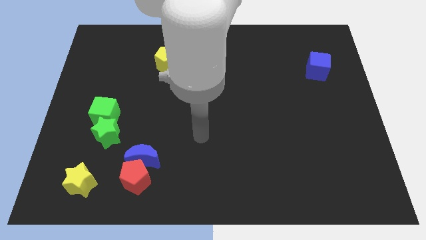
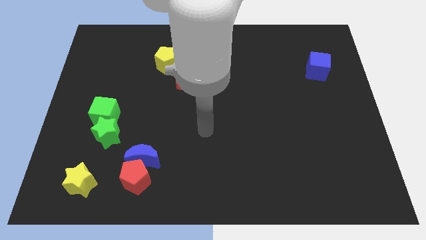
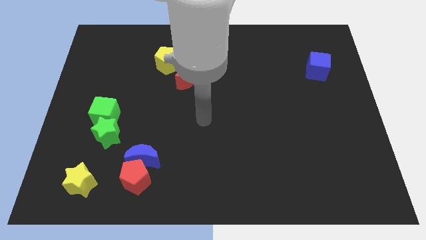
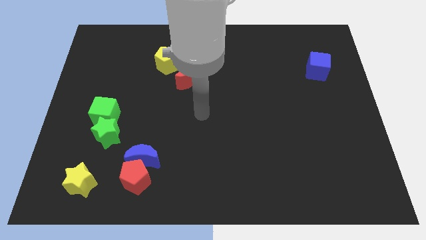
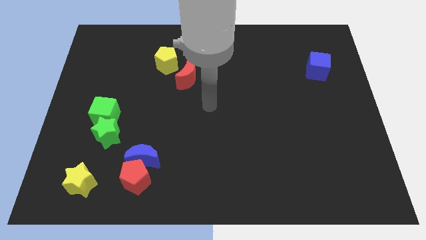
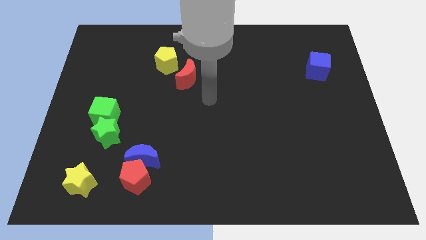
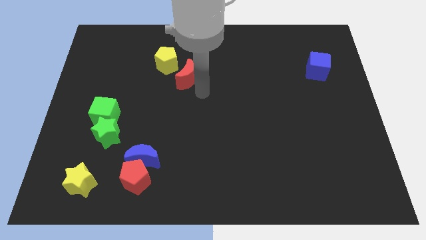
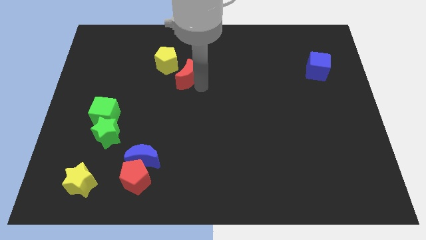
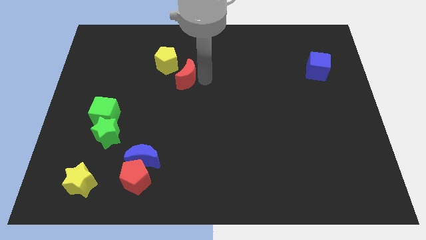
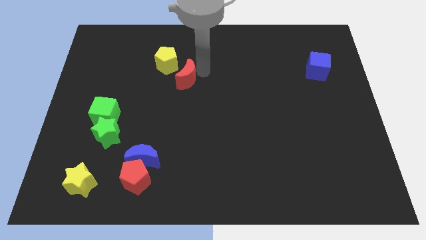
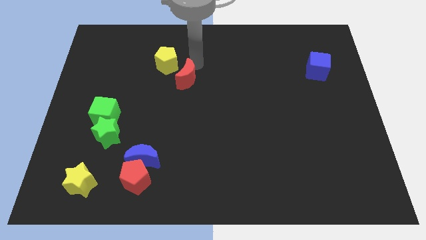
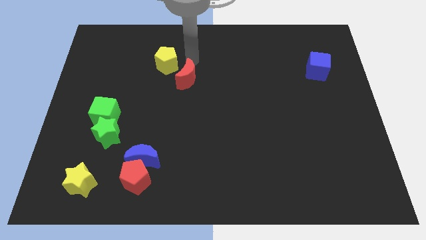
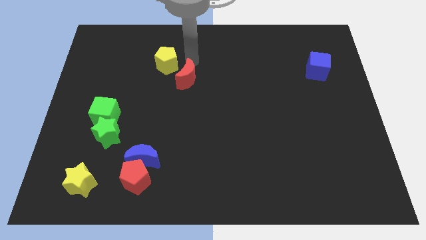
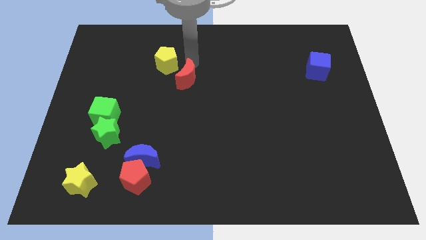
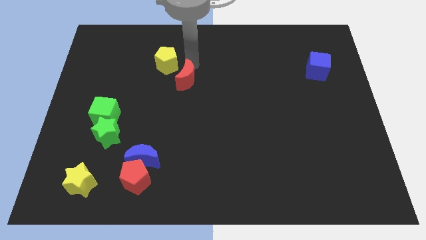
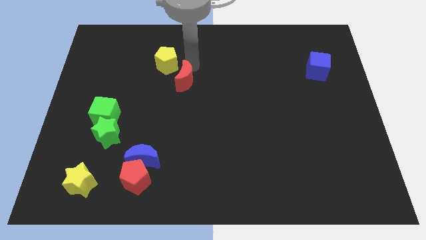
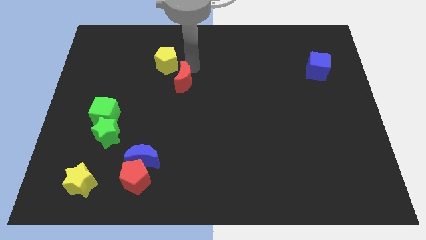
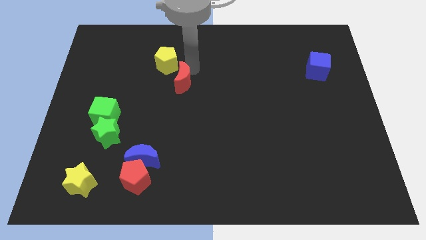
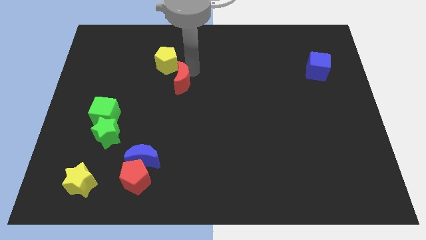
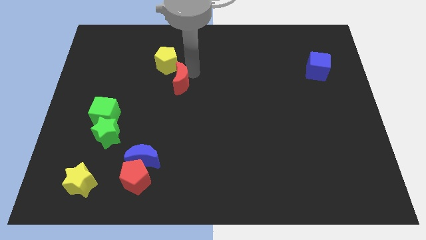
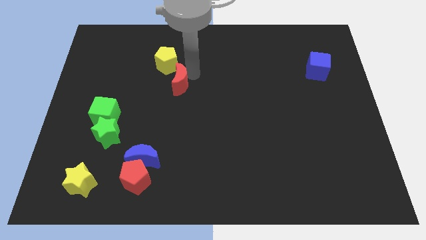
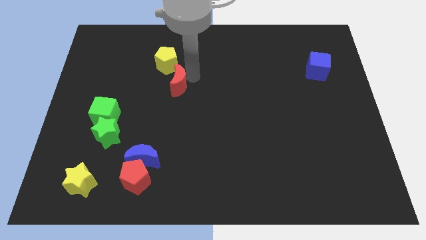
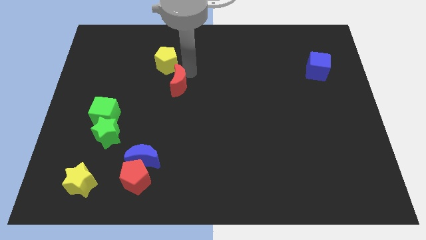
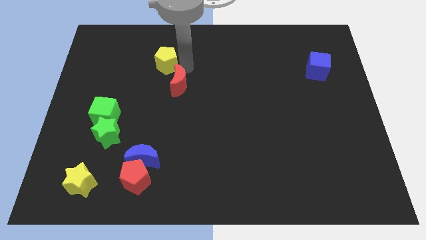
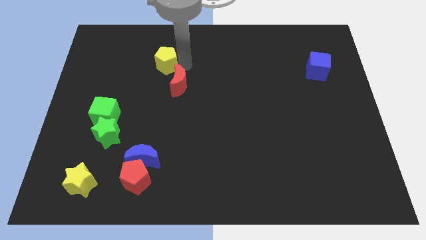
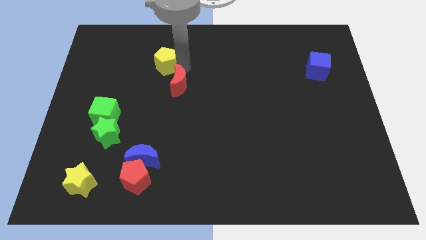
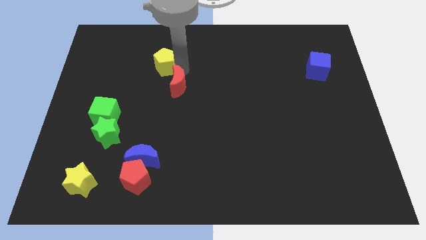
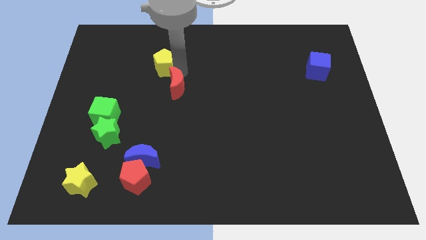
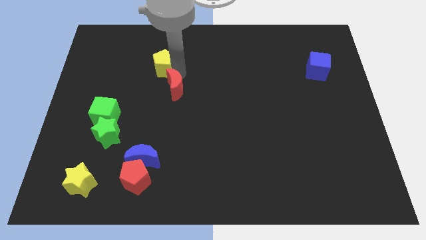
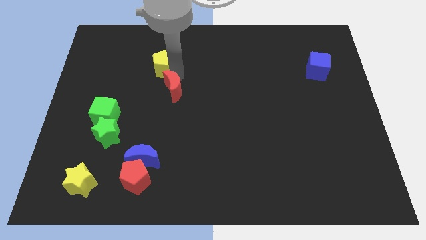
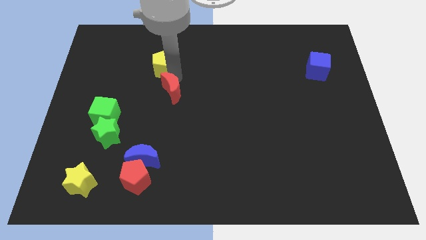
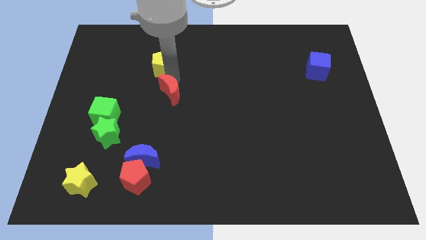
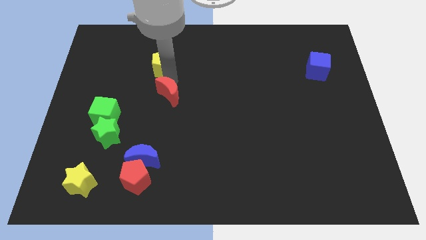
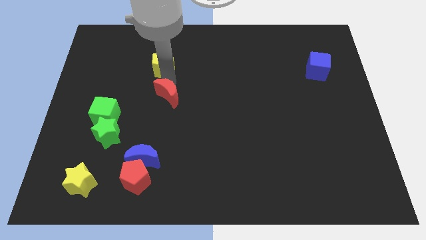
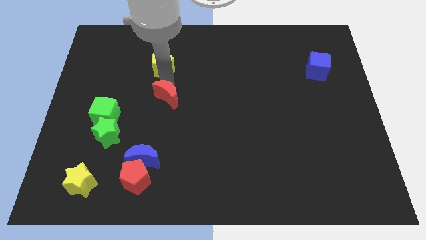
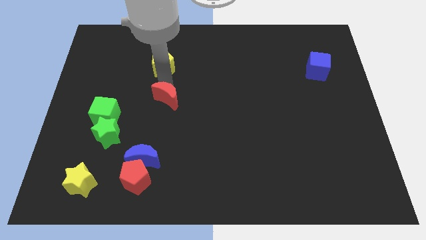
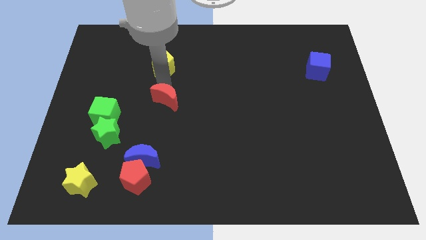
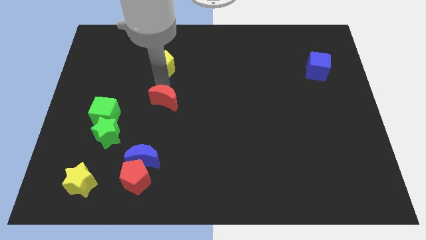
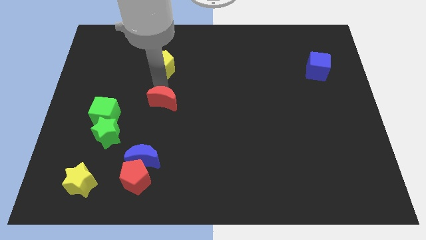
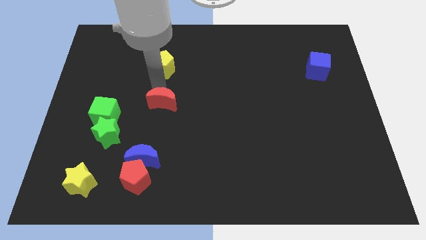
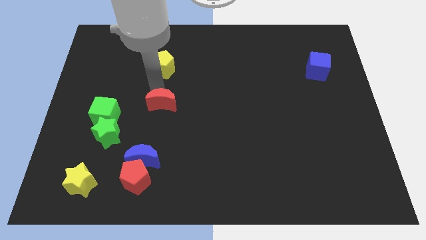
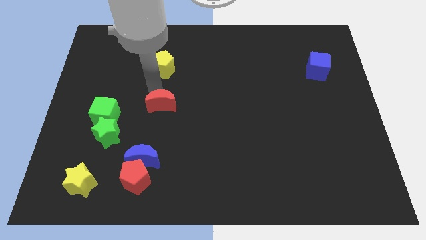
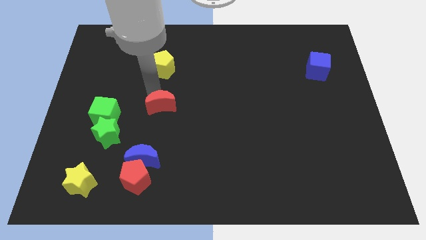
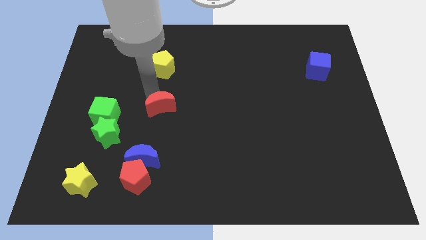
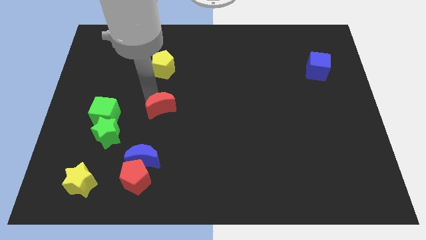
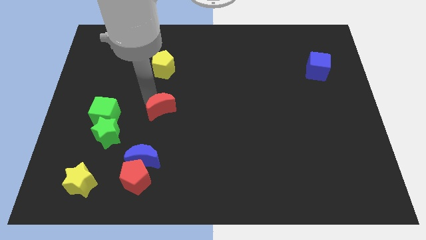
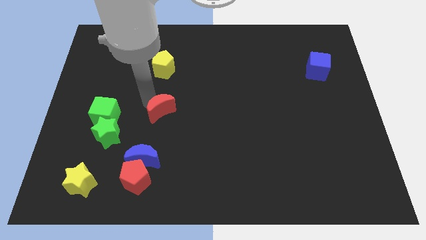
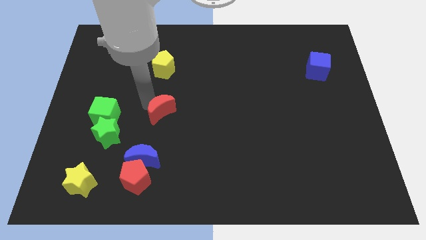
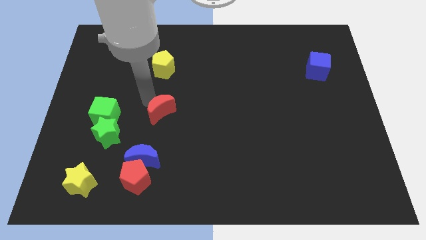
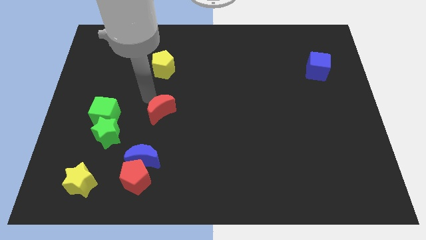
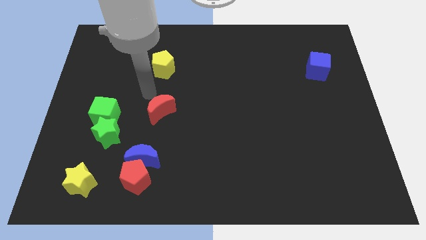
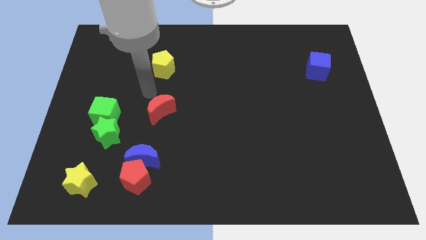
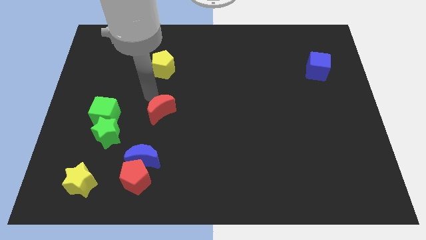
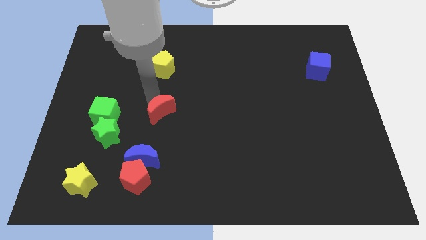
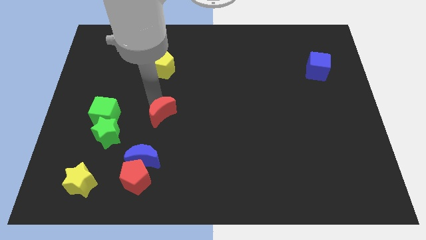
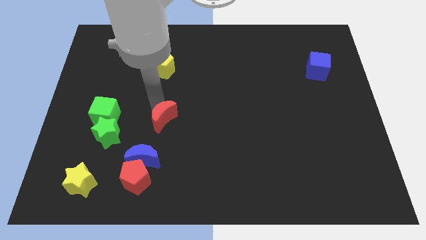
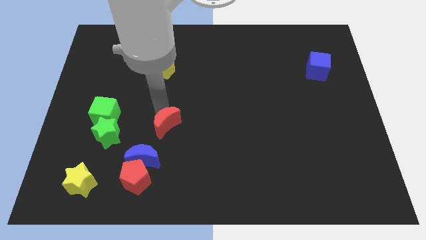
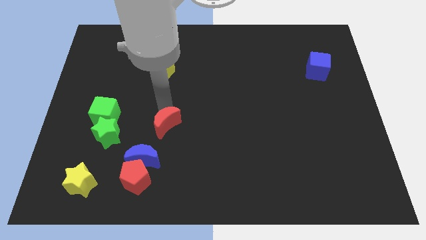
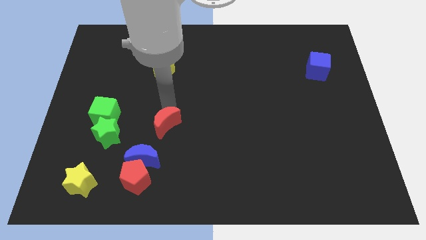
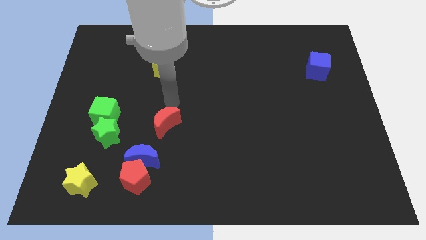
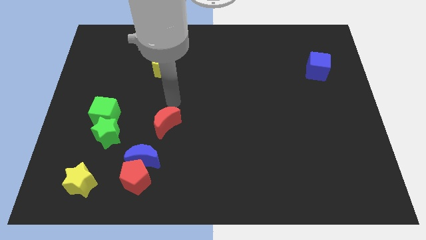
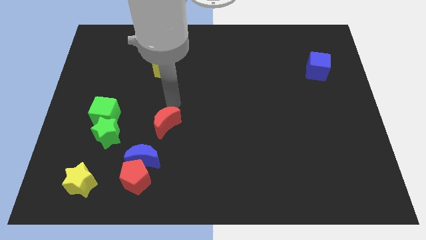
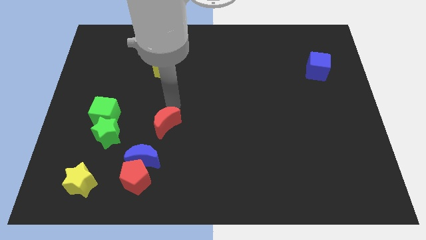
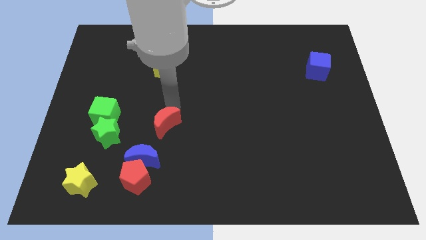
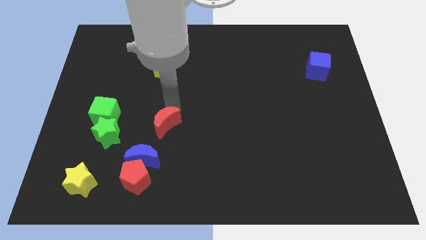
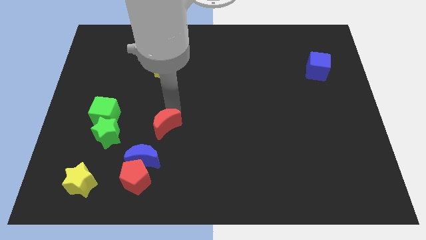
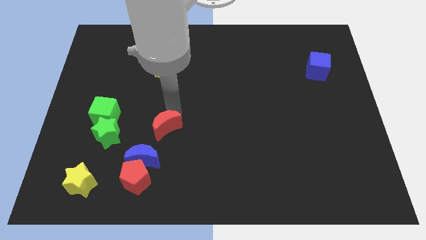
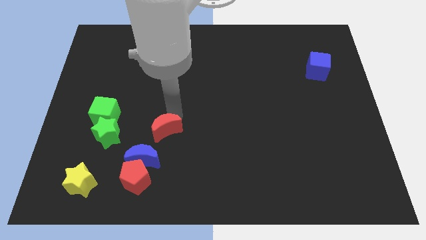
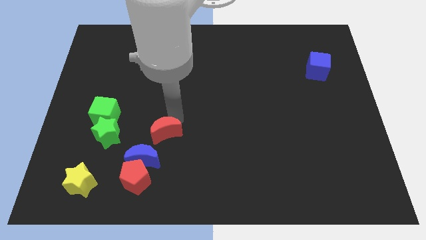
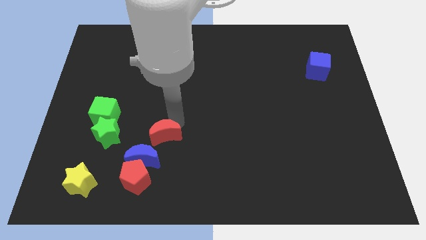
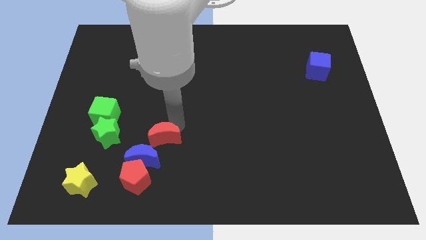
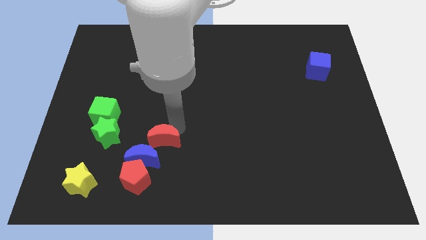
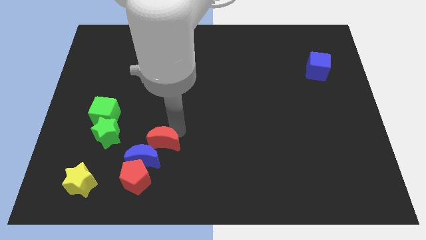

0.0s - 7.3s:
slide the red moon next to the blue moon

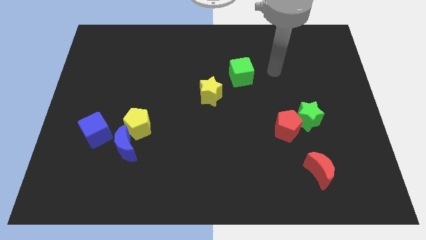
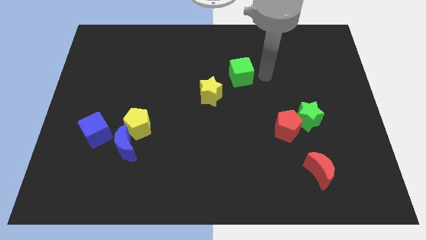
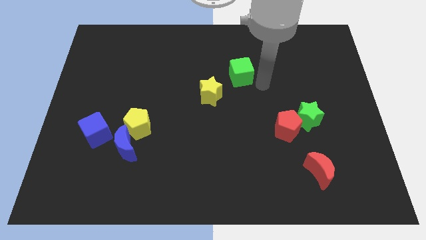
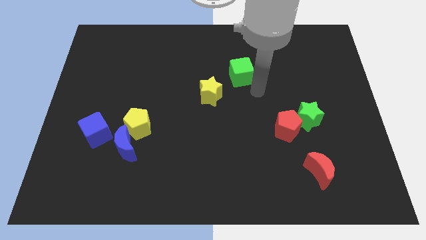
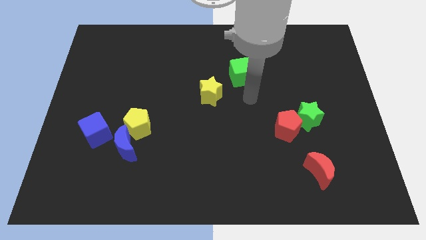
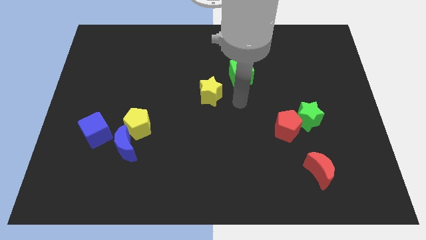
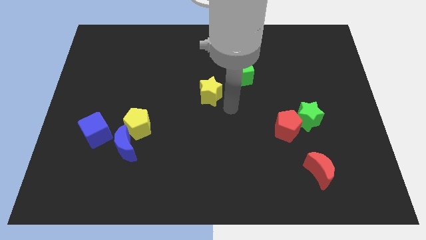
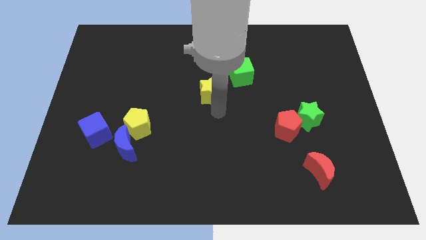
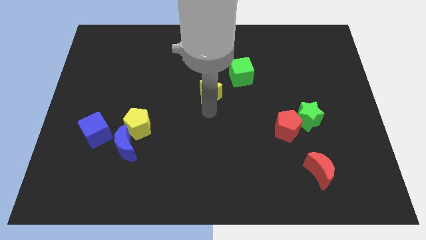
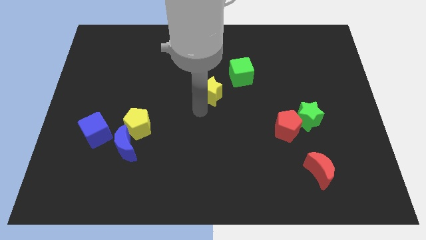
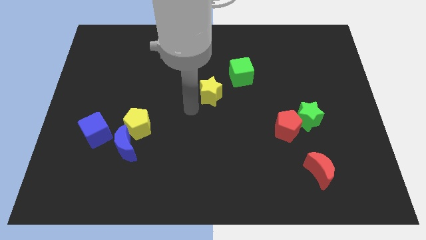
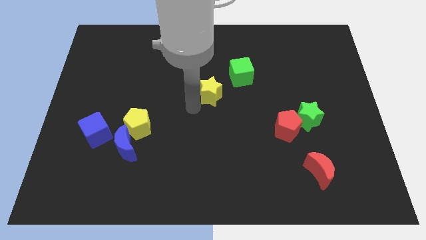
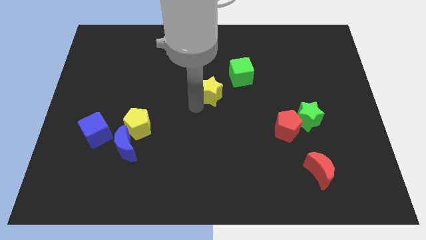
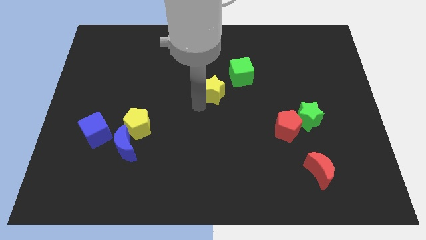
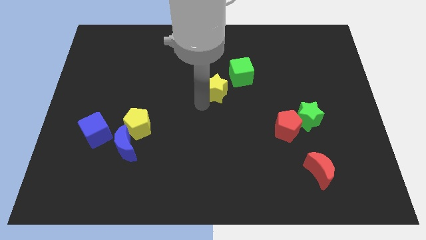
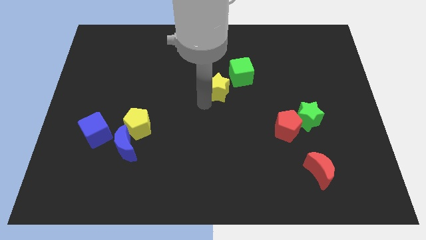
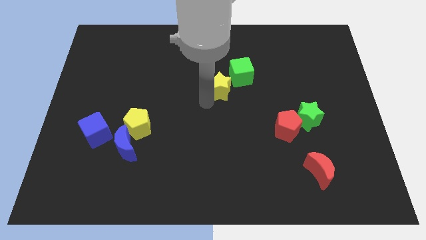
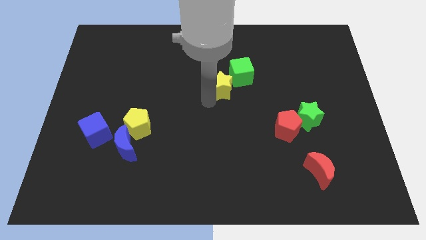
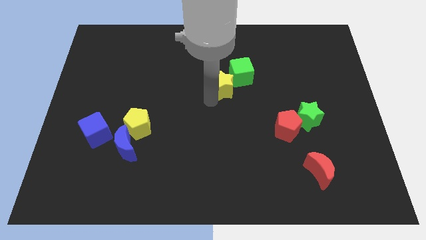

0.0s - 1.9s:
push the yellow star to the green cube
